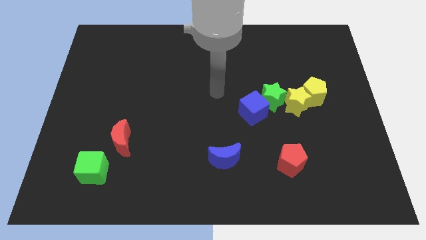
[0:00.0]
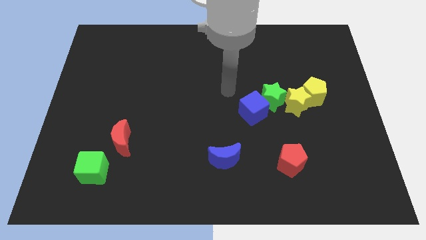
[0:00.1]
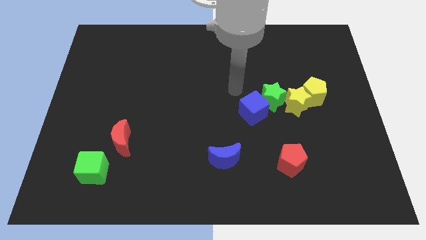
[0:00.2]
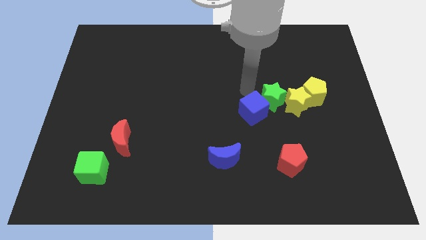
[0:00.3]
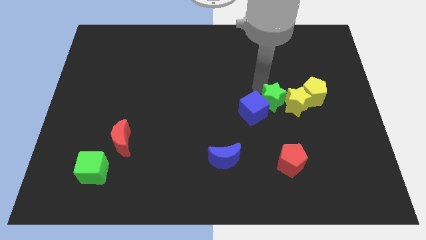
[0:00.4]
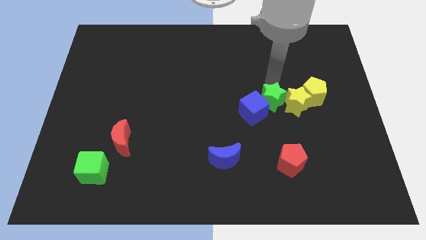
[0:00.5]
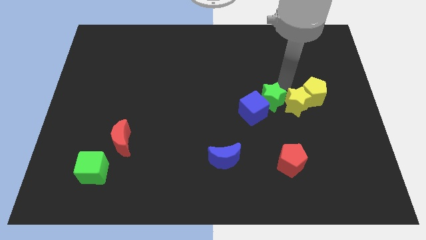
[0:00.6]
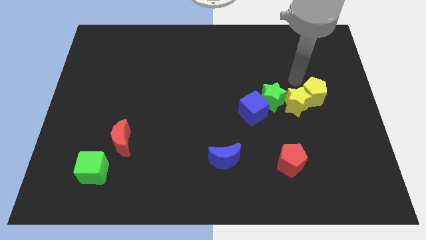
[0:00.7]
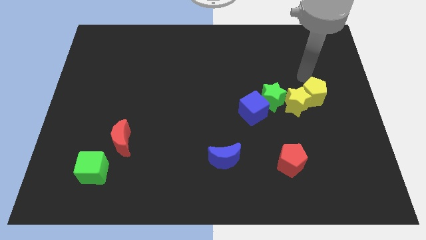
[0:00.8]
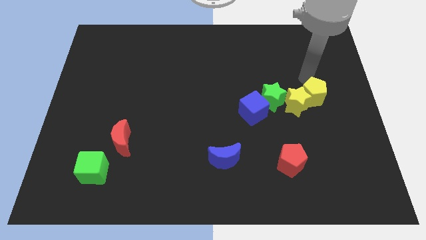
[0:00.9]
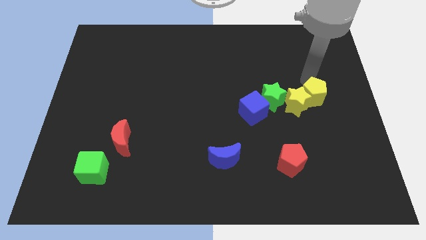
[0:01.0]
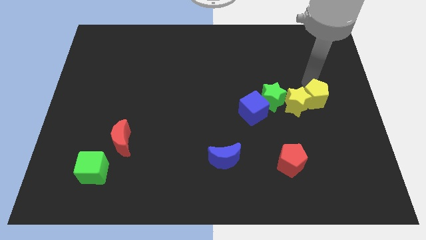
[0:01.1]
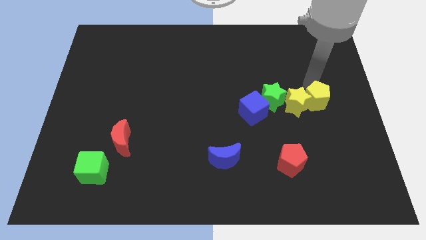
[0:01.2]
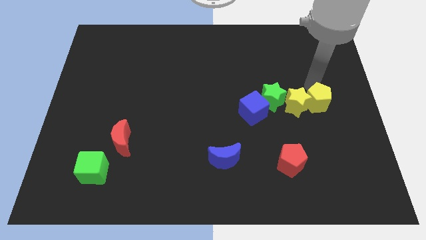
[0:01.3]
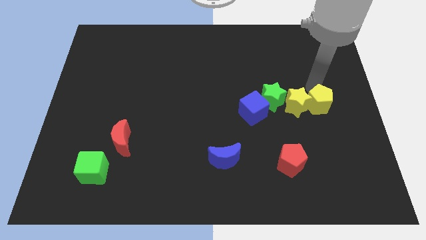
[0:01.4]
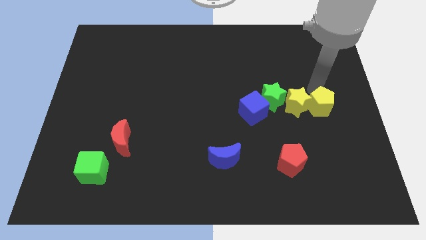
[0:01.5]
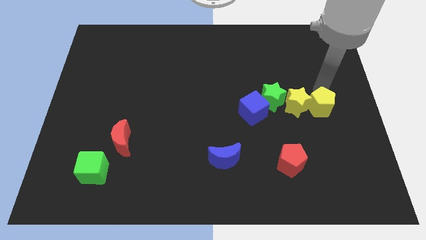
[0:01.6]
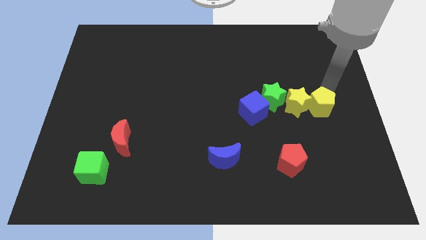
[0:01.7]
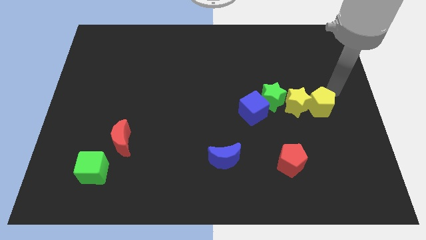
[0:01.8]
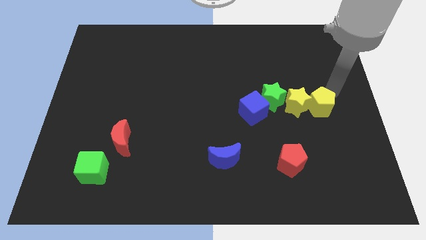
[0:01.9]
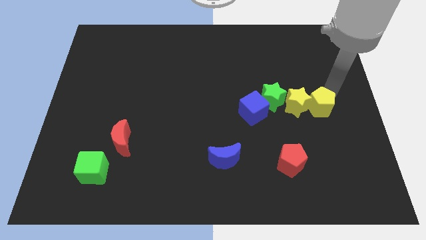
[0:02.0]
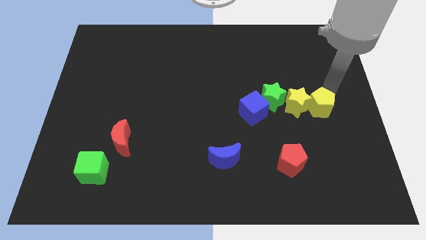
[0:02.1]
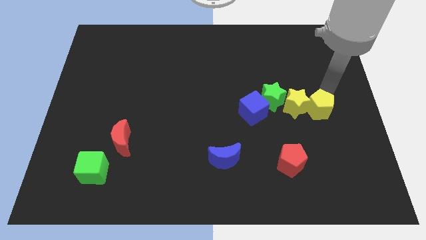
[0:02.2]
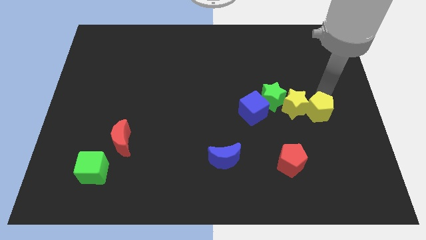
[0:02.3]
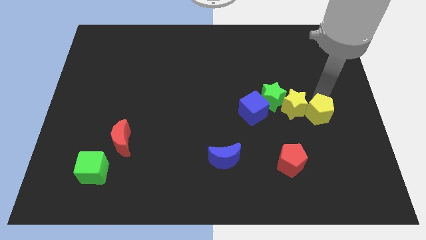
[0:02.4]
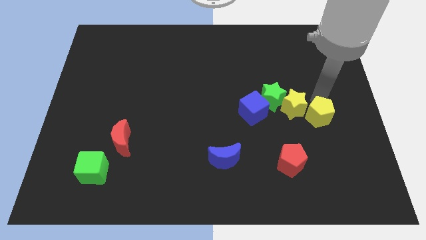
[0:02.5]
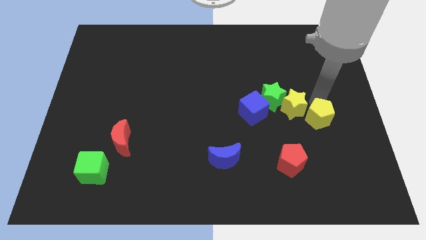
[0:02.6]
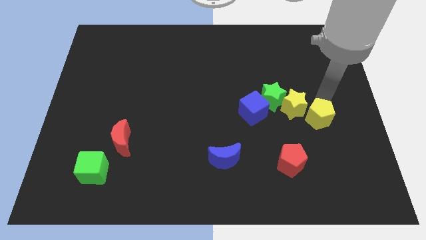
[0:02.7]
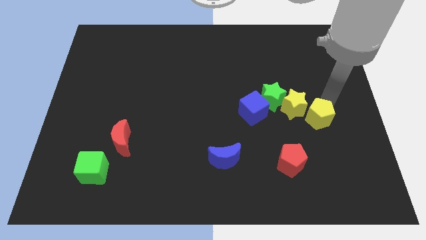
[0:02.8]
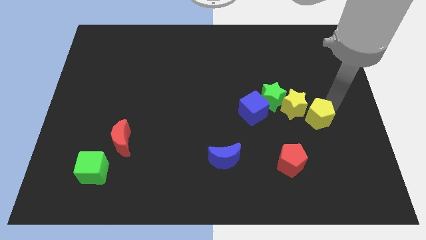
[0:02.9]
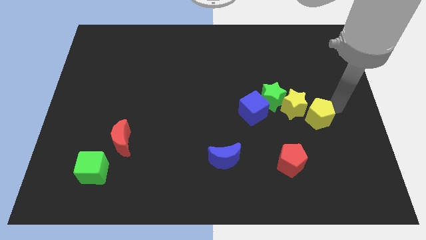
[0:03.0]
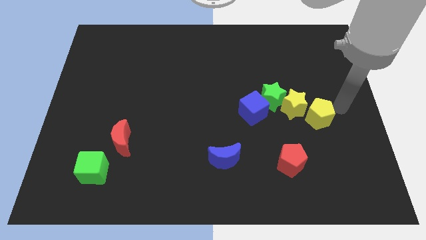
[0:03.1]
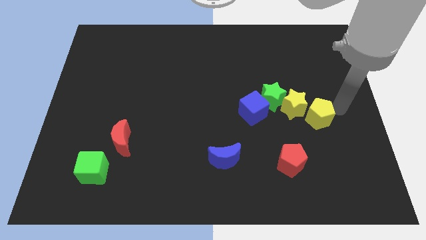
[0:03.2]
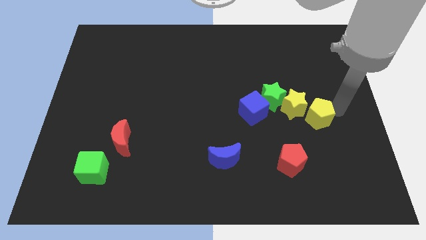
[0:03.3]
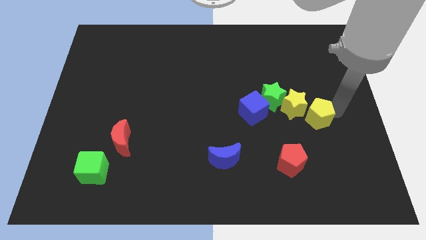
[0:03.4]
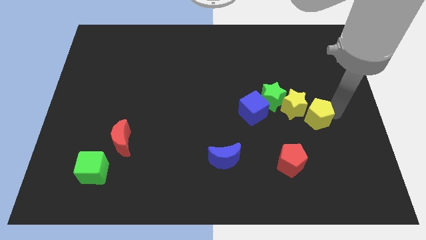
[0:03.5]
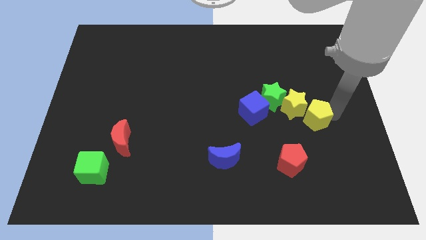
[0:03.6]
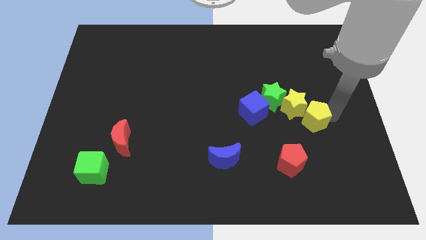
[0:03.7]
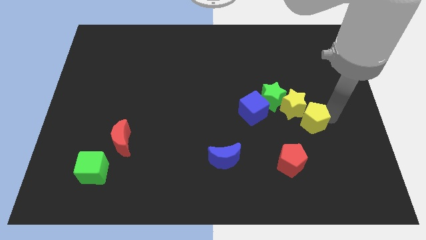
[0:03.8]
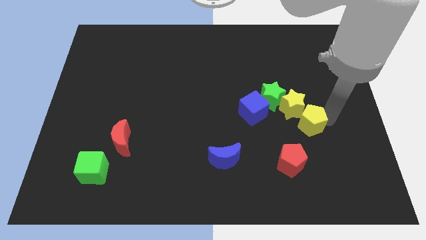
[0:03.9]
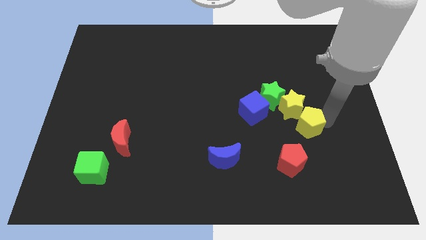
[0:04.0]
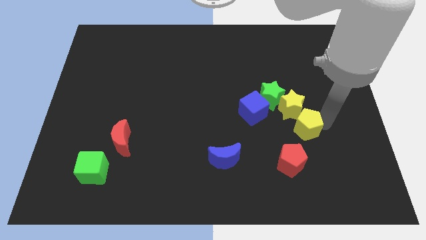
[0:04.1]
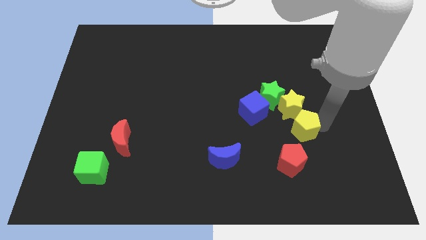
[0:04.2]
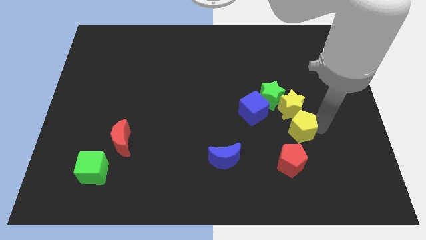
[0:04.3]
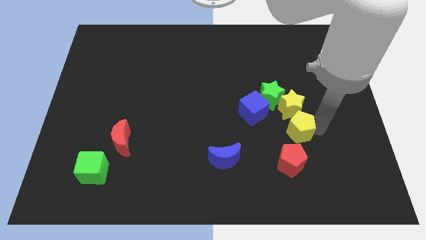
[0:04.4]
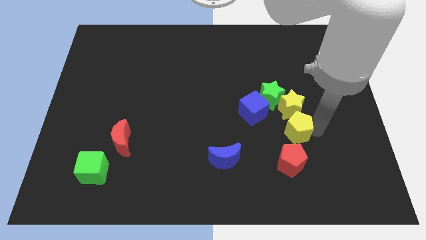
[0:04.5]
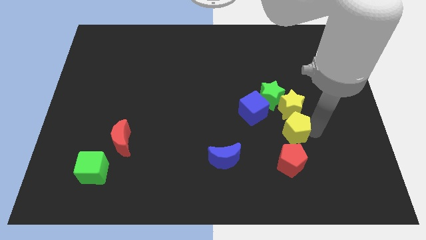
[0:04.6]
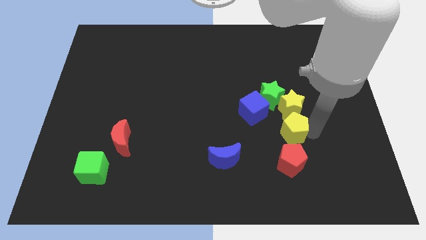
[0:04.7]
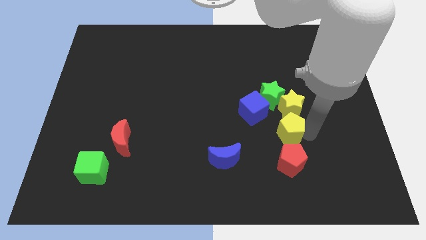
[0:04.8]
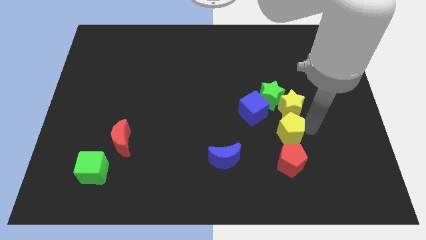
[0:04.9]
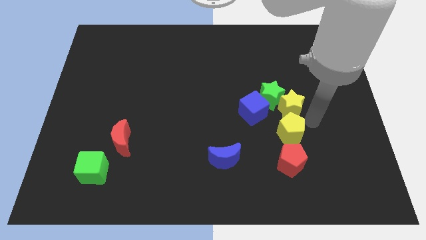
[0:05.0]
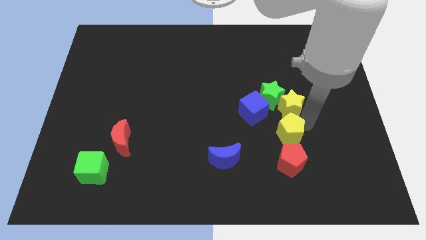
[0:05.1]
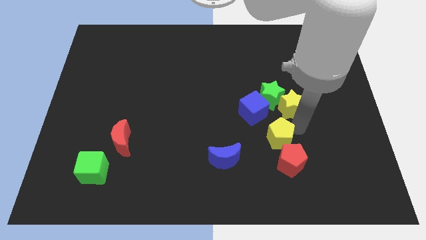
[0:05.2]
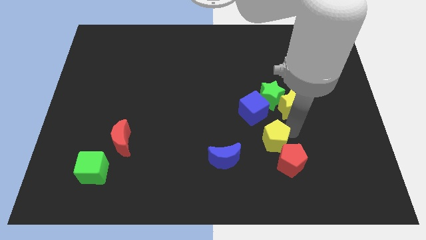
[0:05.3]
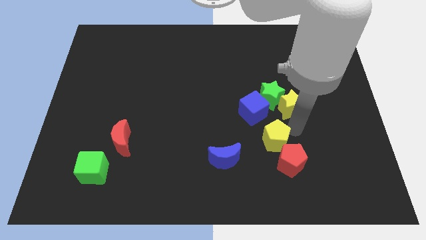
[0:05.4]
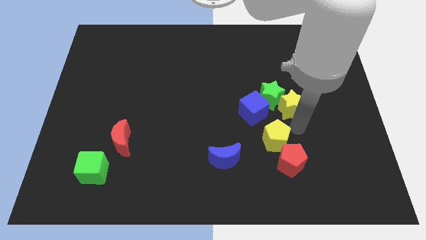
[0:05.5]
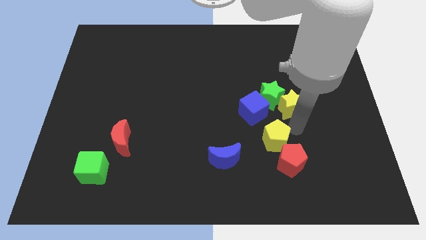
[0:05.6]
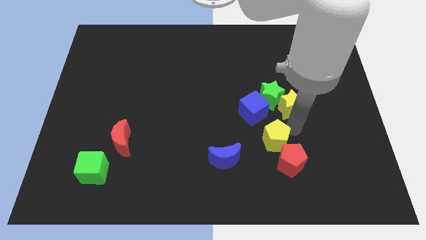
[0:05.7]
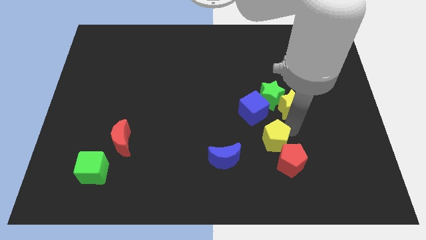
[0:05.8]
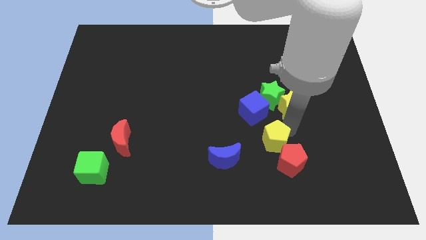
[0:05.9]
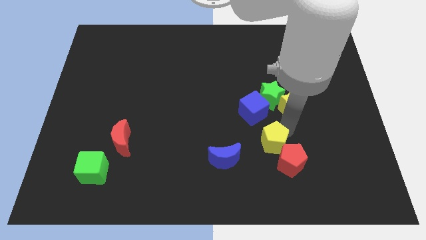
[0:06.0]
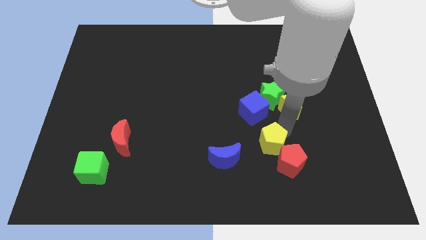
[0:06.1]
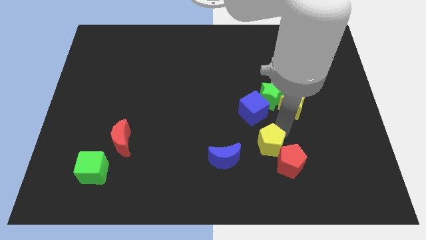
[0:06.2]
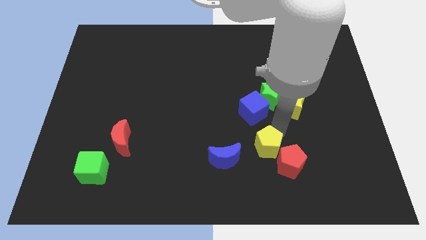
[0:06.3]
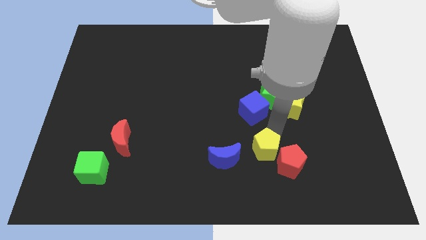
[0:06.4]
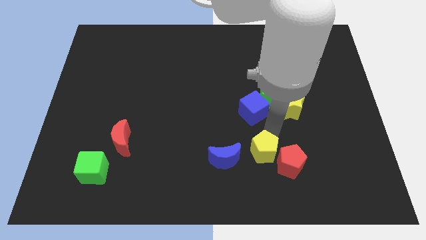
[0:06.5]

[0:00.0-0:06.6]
push the yellow pentagon down and to the left

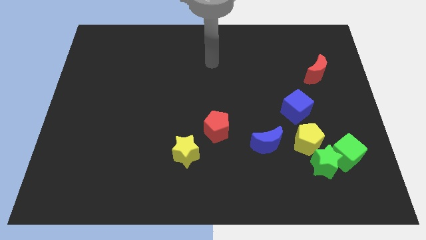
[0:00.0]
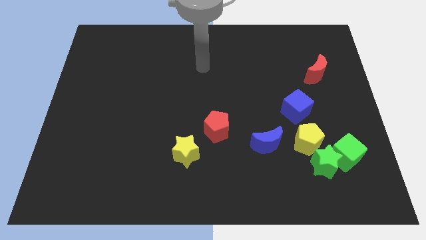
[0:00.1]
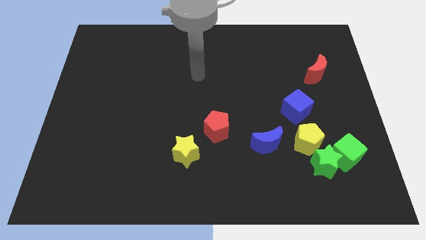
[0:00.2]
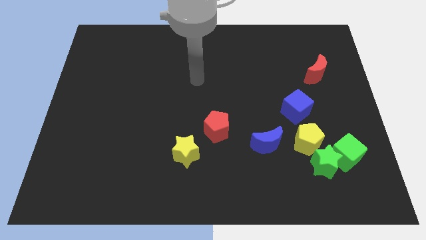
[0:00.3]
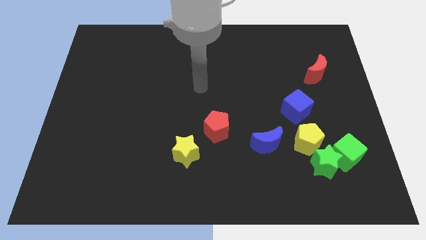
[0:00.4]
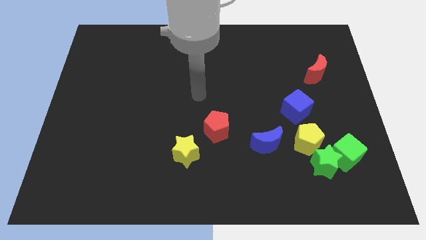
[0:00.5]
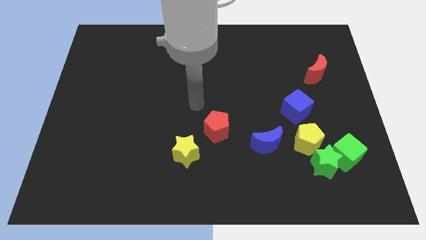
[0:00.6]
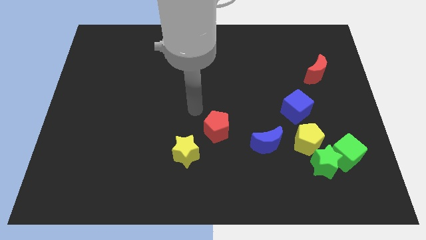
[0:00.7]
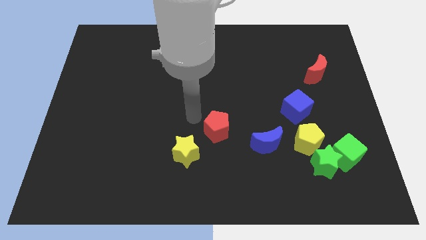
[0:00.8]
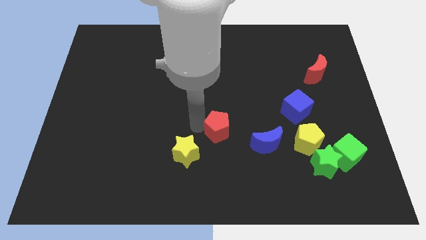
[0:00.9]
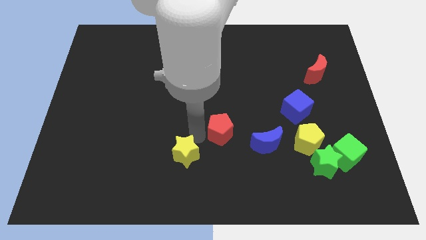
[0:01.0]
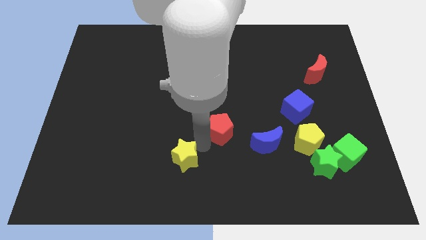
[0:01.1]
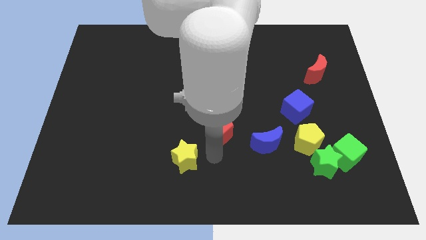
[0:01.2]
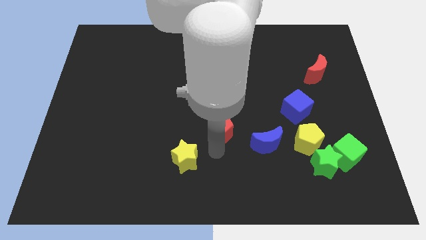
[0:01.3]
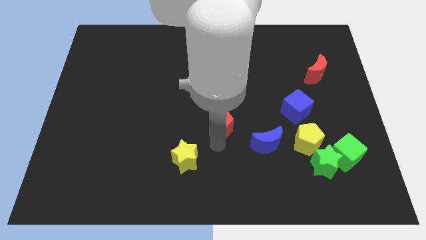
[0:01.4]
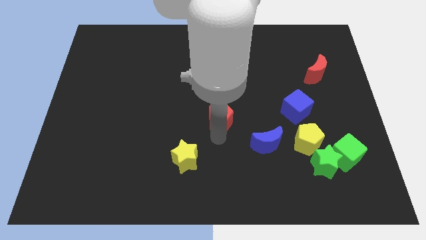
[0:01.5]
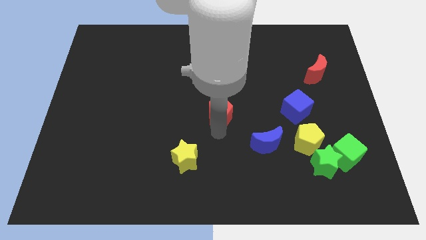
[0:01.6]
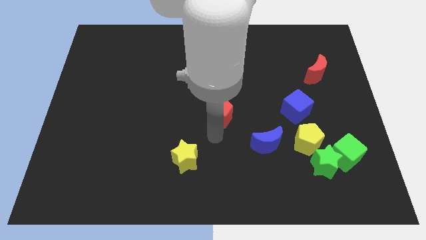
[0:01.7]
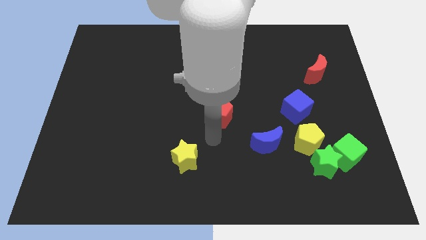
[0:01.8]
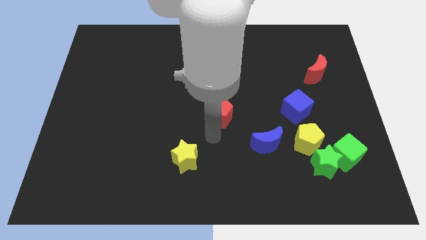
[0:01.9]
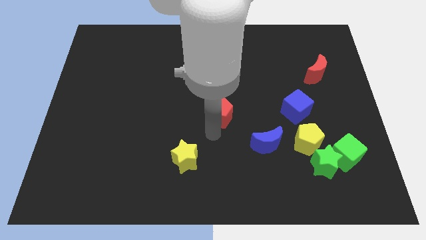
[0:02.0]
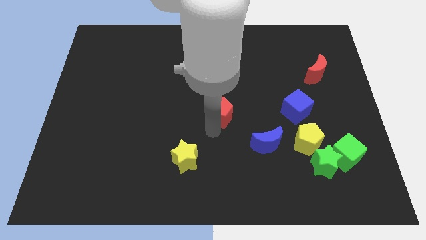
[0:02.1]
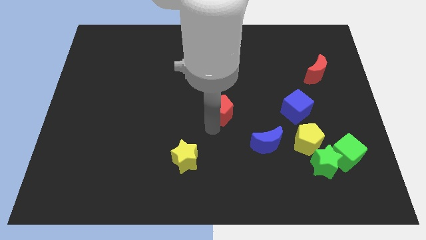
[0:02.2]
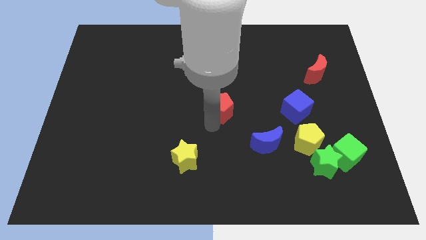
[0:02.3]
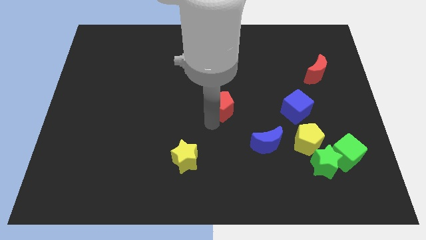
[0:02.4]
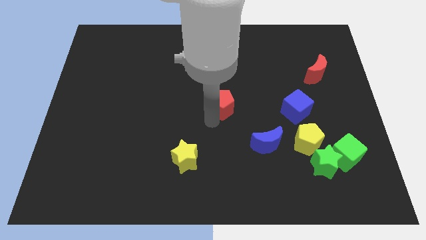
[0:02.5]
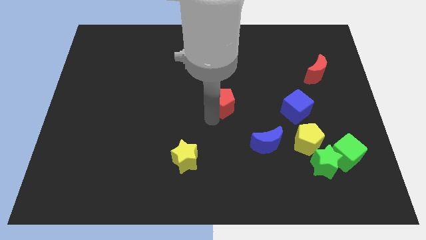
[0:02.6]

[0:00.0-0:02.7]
move the red pentagon slightly upwards
